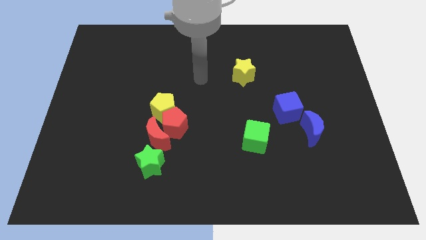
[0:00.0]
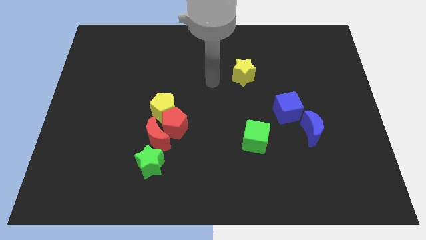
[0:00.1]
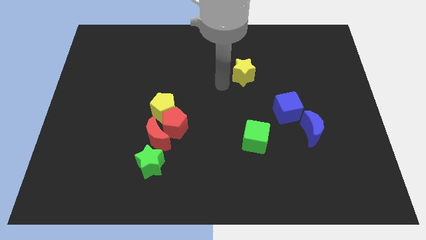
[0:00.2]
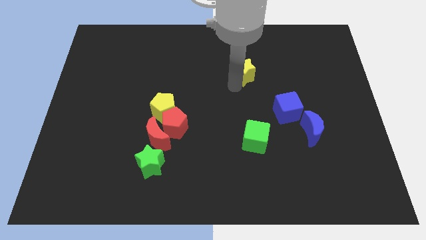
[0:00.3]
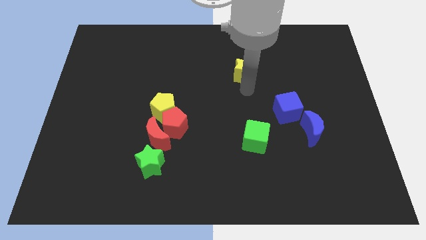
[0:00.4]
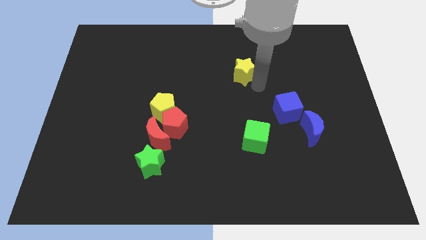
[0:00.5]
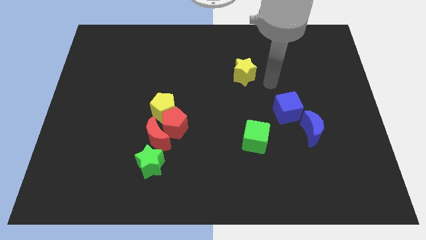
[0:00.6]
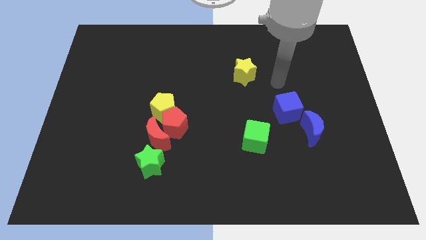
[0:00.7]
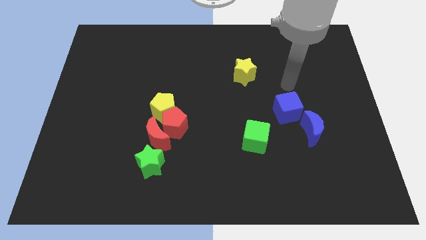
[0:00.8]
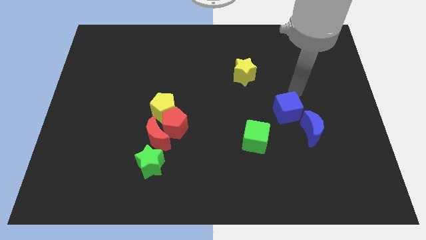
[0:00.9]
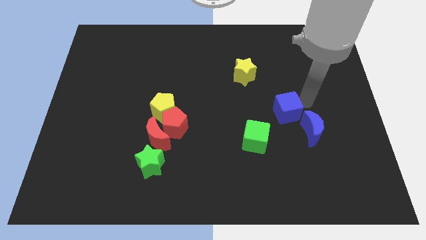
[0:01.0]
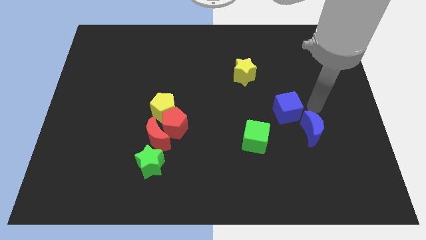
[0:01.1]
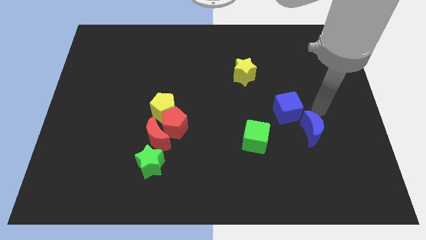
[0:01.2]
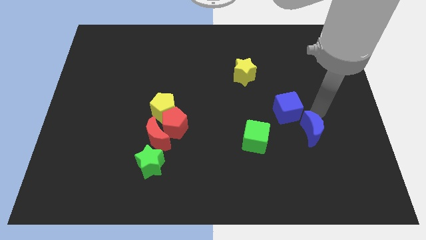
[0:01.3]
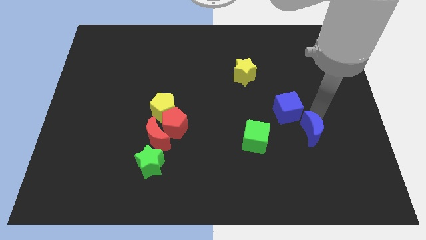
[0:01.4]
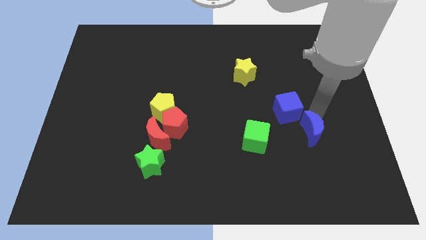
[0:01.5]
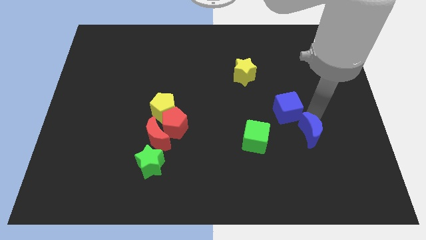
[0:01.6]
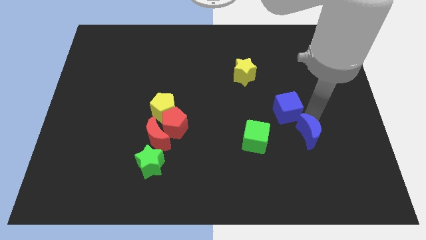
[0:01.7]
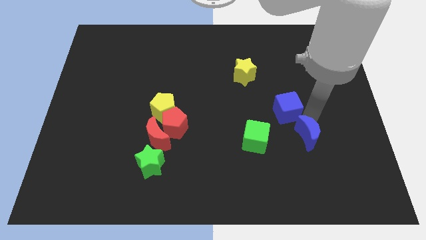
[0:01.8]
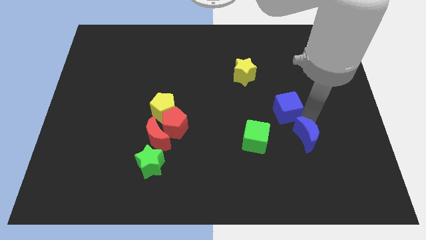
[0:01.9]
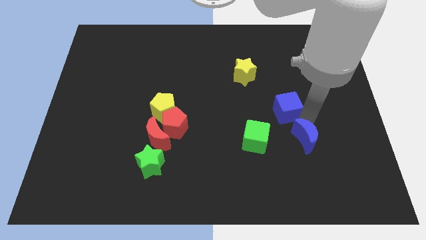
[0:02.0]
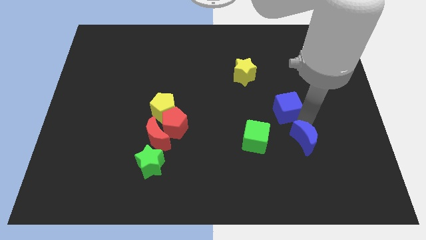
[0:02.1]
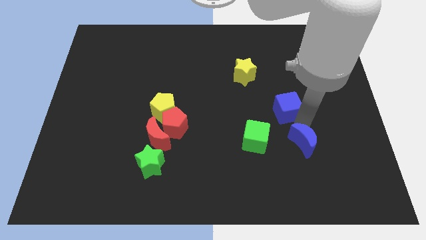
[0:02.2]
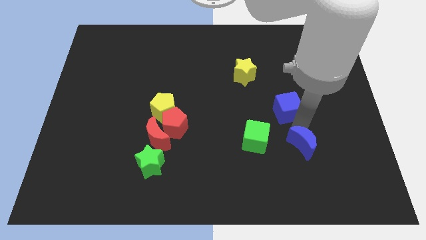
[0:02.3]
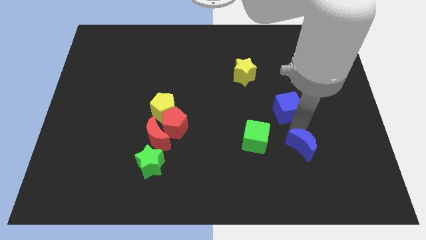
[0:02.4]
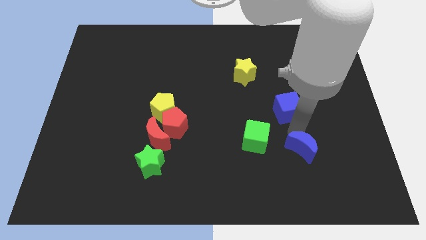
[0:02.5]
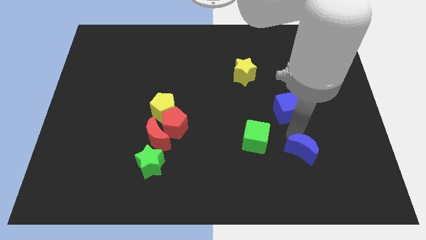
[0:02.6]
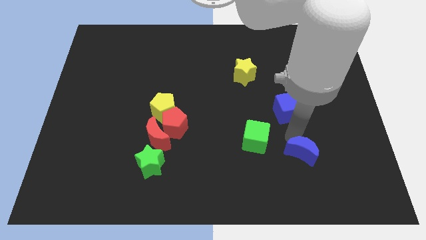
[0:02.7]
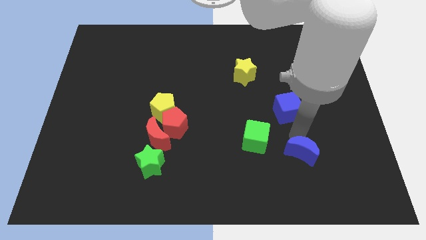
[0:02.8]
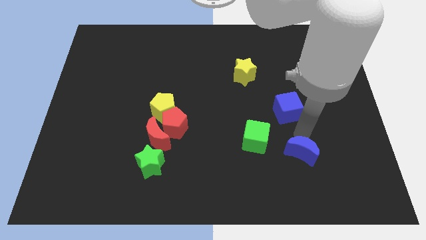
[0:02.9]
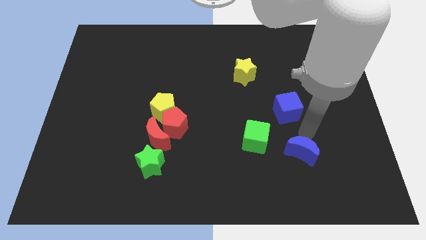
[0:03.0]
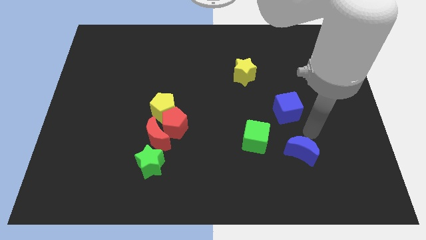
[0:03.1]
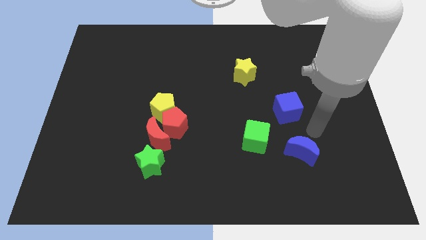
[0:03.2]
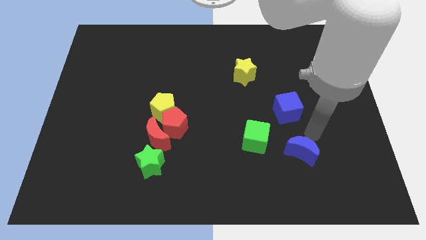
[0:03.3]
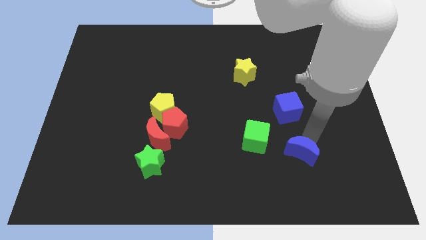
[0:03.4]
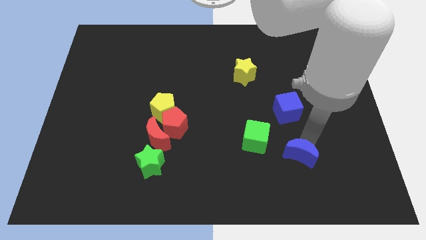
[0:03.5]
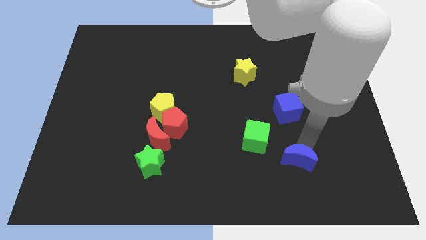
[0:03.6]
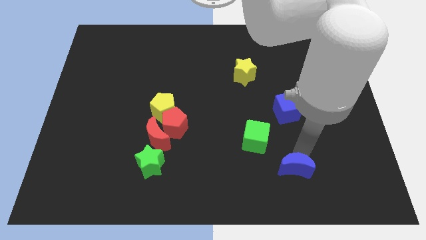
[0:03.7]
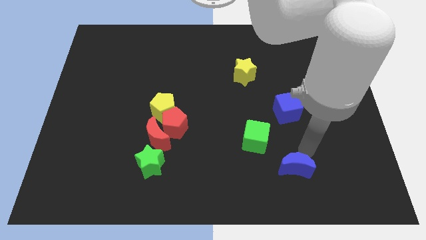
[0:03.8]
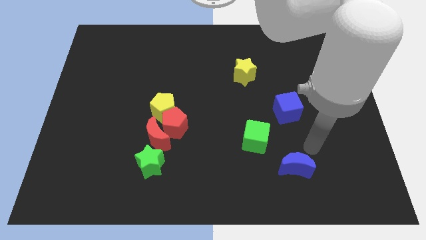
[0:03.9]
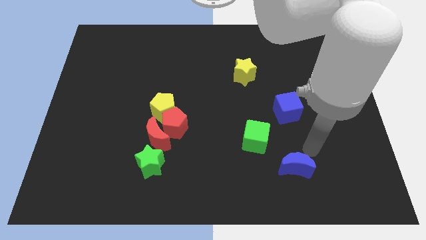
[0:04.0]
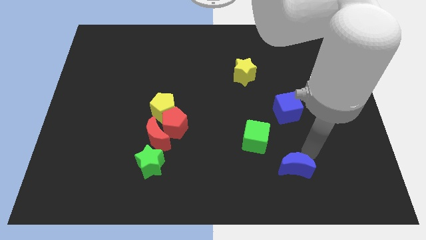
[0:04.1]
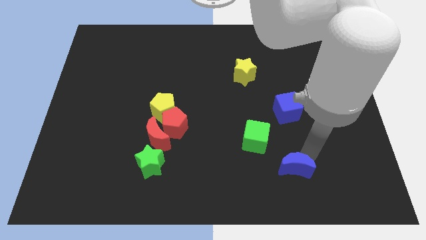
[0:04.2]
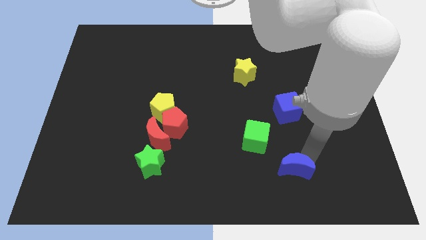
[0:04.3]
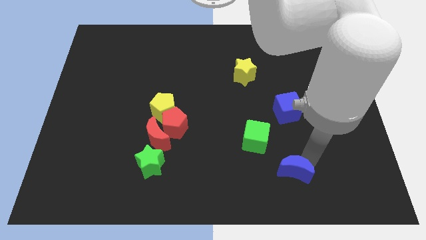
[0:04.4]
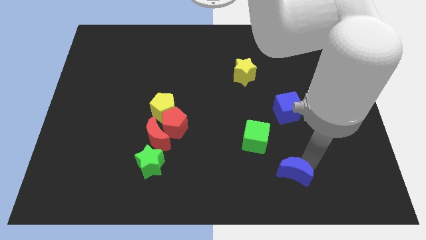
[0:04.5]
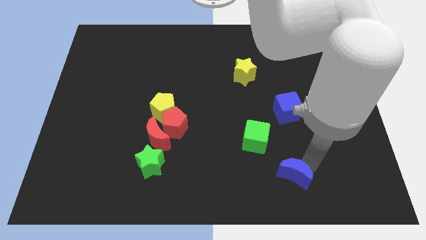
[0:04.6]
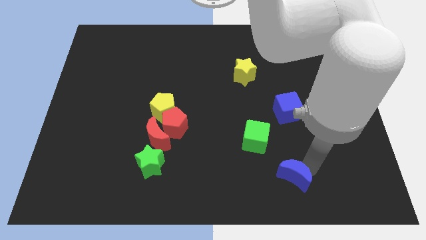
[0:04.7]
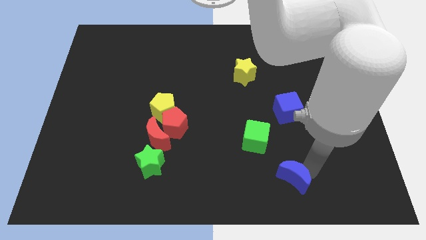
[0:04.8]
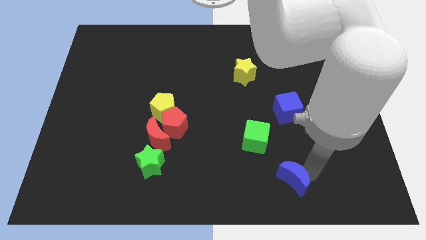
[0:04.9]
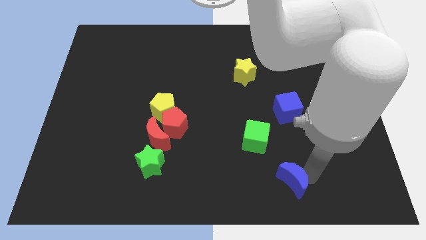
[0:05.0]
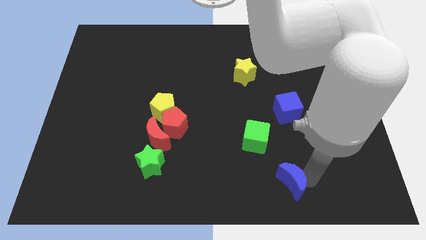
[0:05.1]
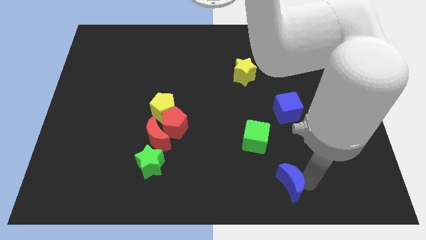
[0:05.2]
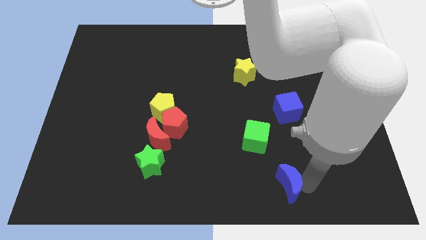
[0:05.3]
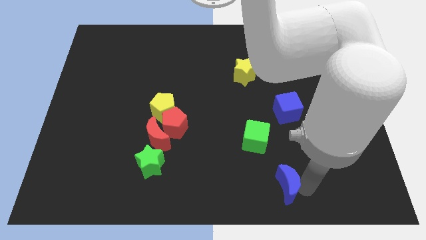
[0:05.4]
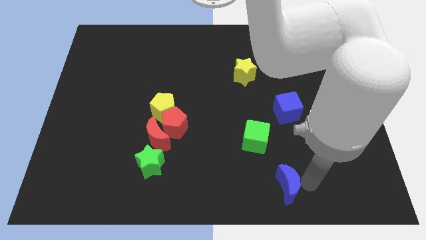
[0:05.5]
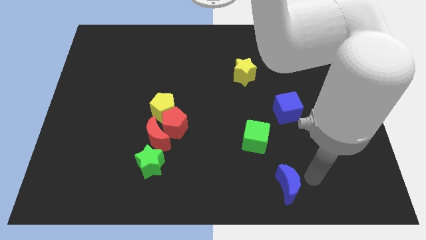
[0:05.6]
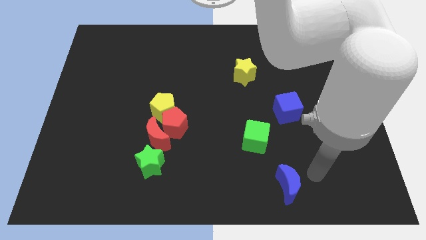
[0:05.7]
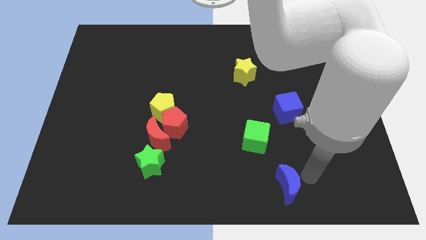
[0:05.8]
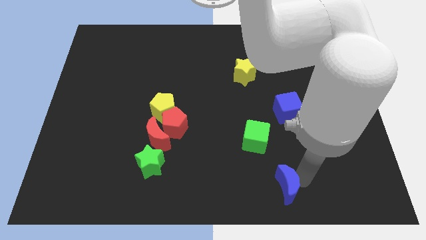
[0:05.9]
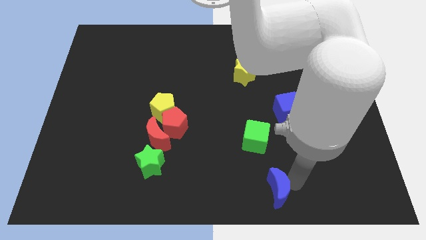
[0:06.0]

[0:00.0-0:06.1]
move the blue moon to the bottom
